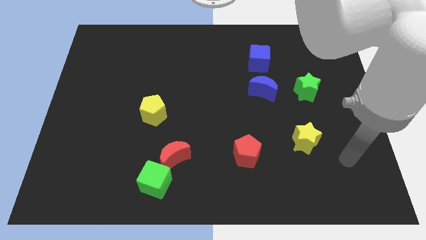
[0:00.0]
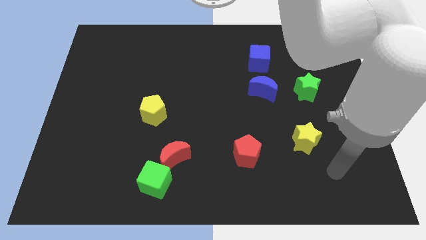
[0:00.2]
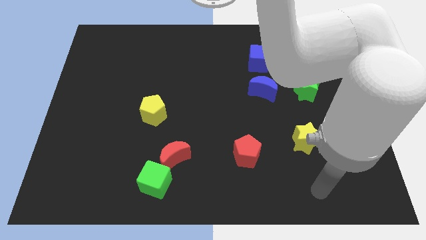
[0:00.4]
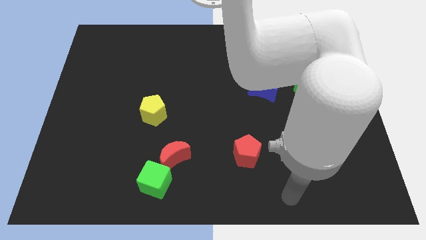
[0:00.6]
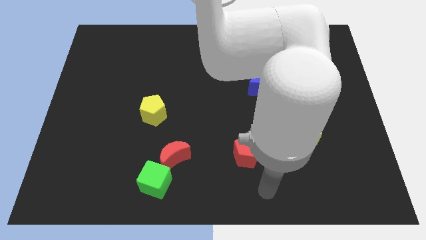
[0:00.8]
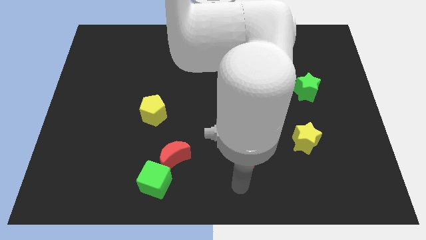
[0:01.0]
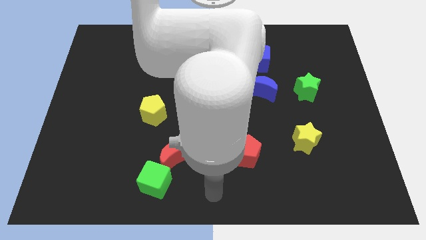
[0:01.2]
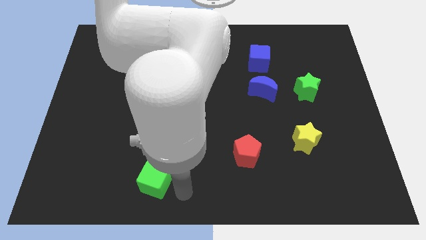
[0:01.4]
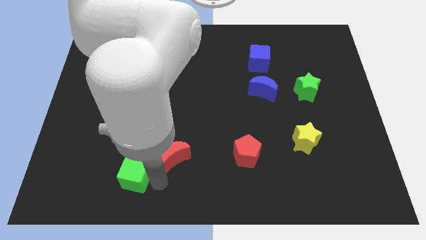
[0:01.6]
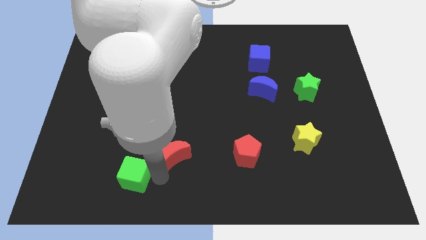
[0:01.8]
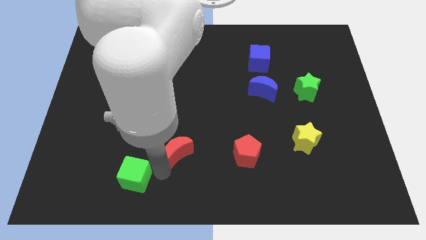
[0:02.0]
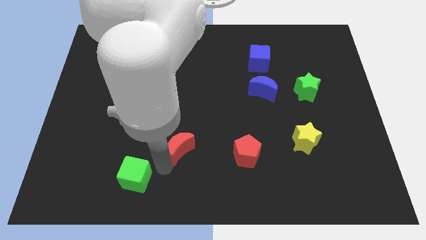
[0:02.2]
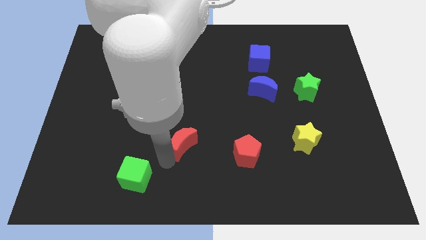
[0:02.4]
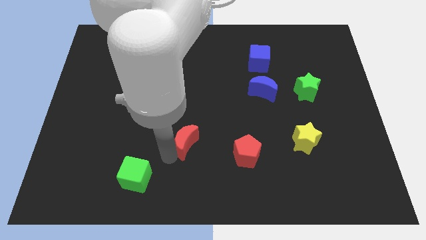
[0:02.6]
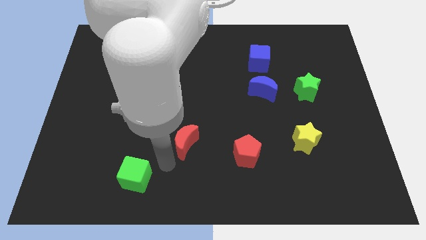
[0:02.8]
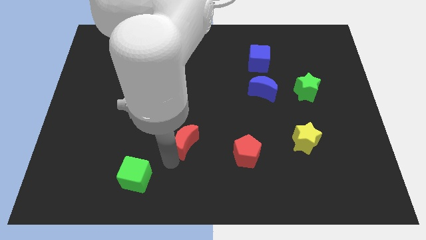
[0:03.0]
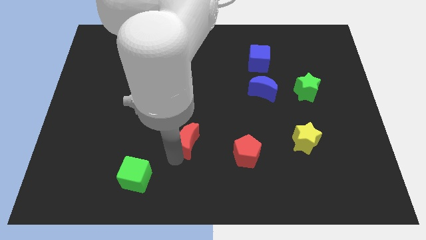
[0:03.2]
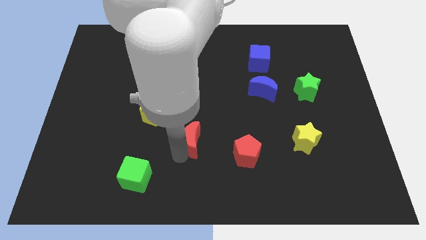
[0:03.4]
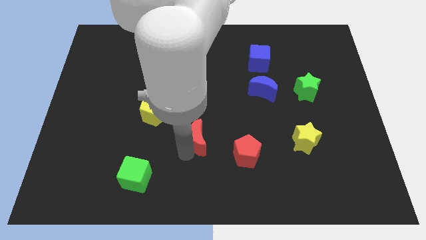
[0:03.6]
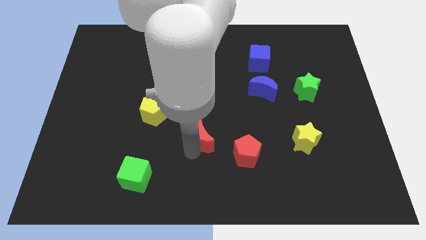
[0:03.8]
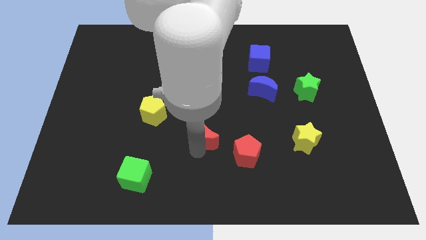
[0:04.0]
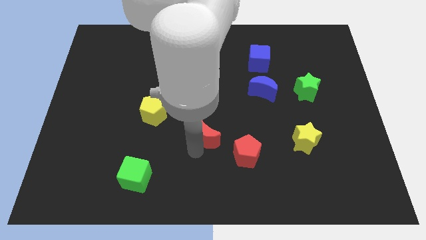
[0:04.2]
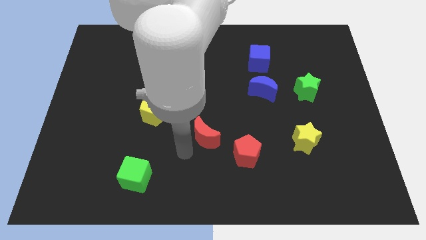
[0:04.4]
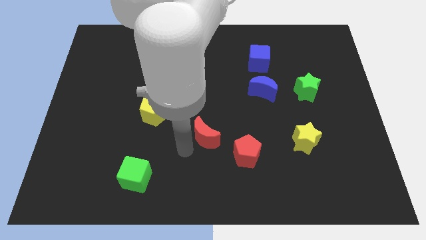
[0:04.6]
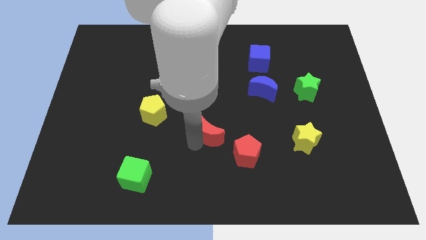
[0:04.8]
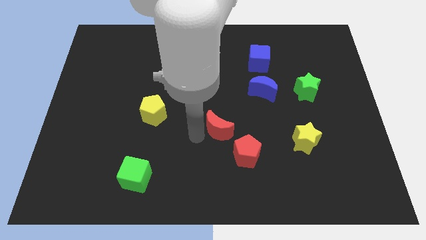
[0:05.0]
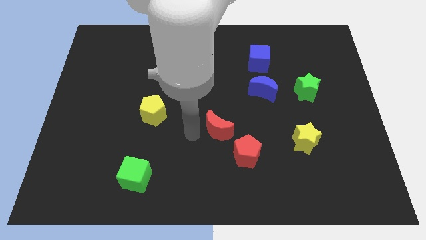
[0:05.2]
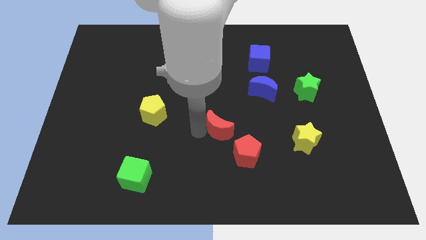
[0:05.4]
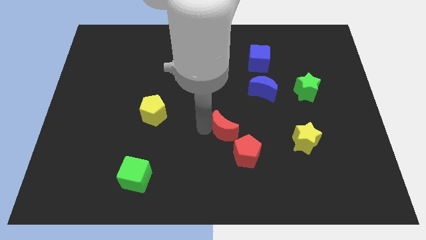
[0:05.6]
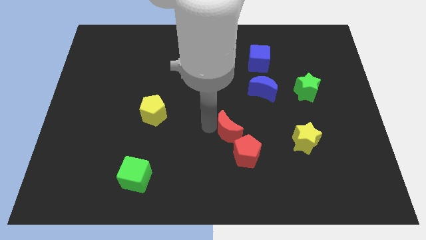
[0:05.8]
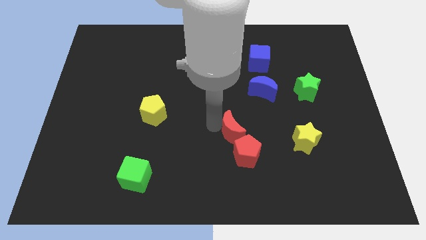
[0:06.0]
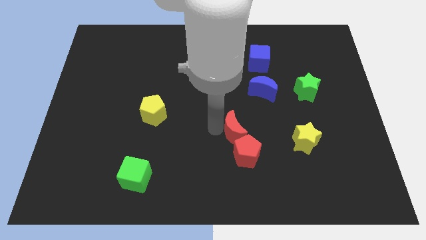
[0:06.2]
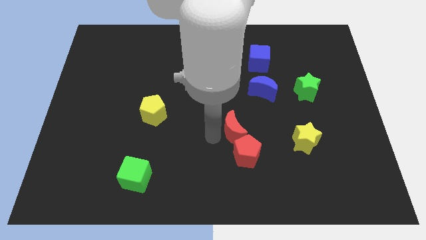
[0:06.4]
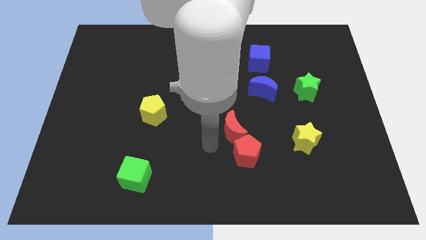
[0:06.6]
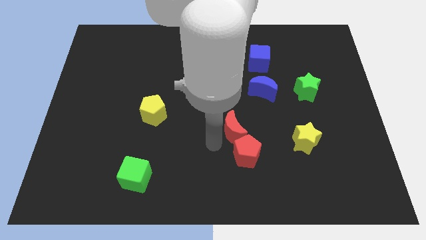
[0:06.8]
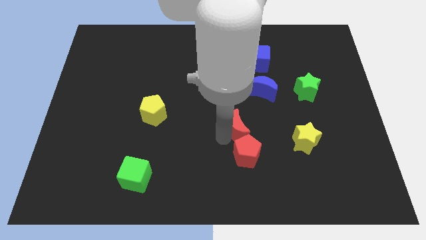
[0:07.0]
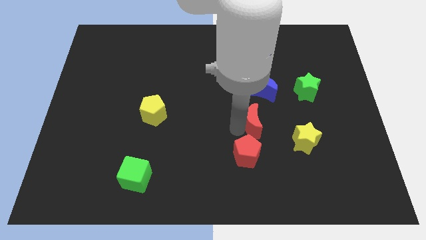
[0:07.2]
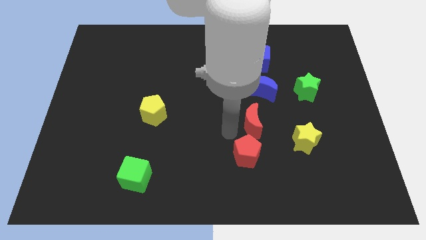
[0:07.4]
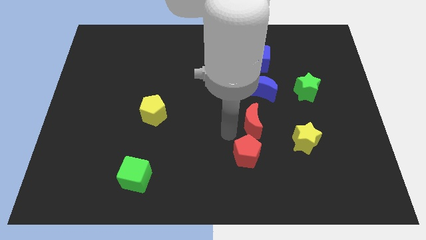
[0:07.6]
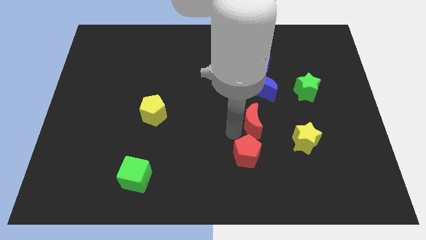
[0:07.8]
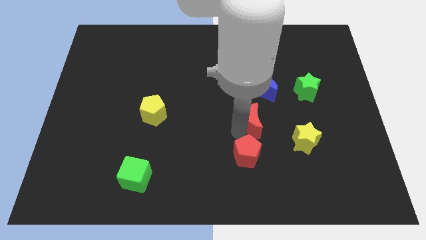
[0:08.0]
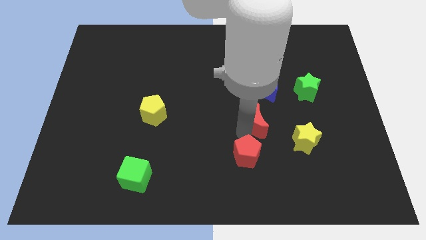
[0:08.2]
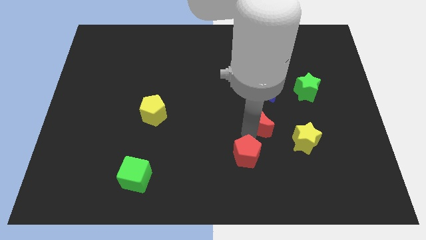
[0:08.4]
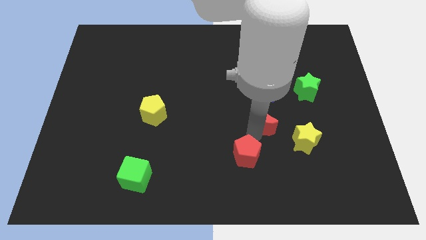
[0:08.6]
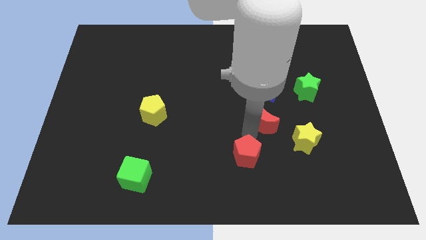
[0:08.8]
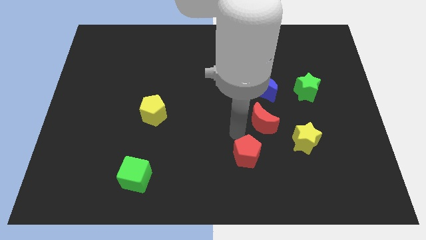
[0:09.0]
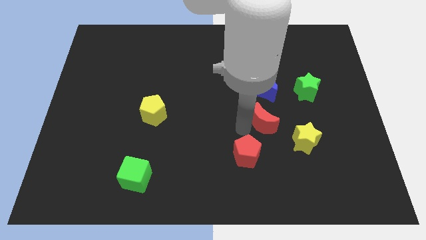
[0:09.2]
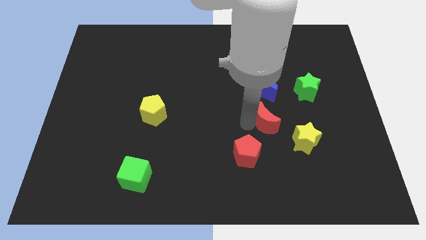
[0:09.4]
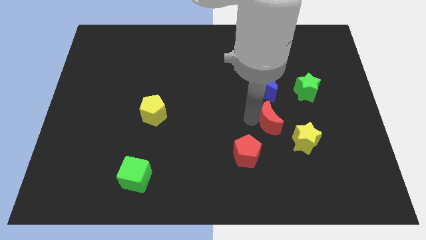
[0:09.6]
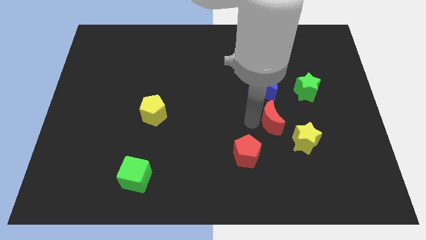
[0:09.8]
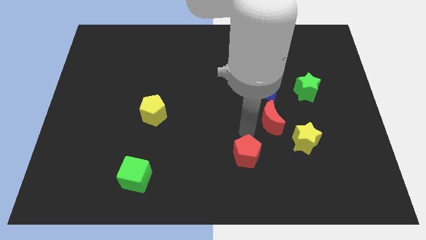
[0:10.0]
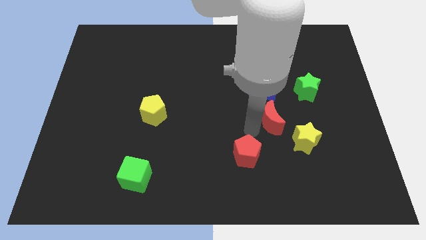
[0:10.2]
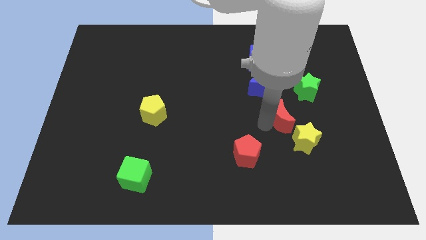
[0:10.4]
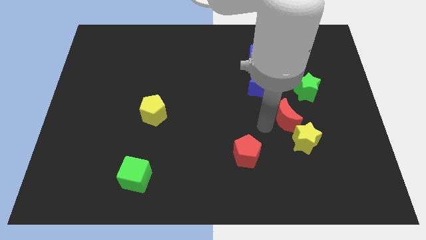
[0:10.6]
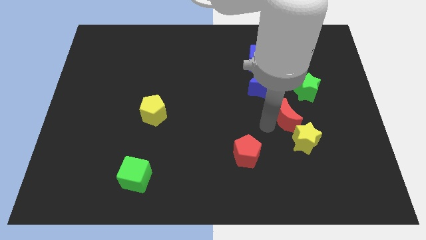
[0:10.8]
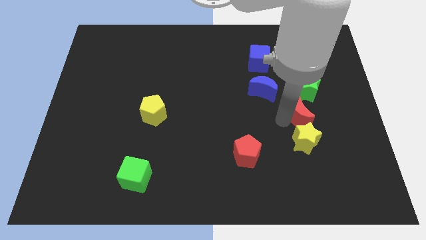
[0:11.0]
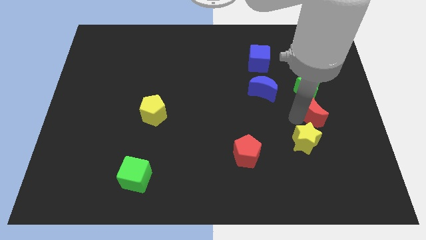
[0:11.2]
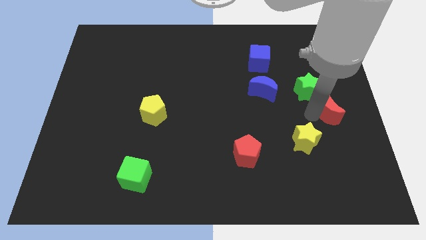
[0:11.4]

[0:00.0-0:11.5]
slide the red moon to the right side

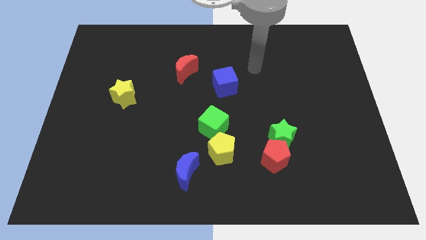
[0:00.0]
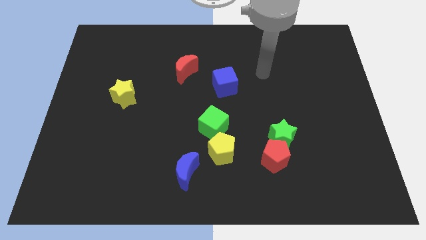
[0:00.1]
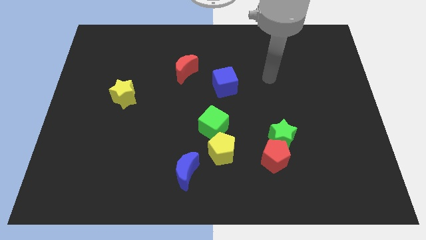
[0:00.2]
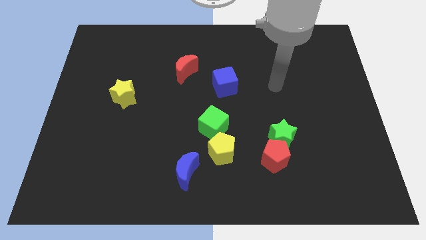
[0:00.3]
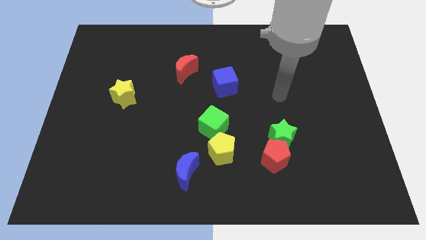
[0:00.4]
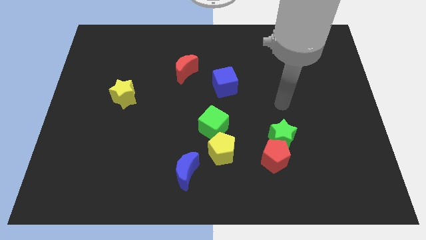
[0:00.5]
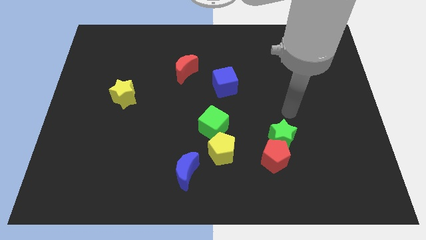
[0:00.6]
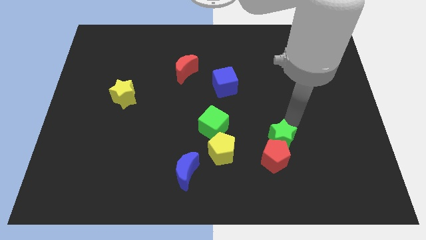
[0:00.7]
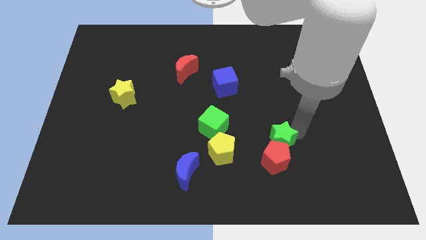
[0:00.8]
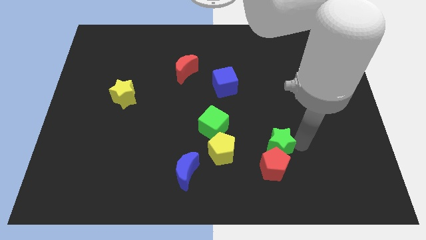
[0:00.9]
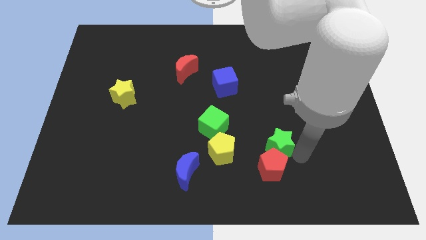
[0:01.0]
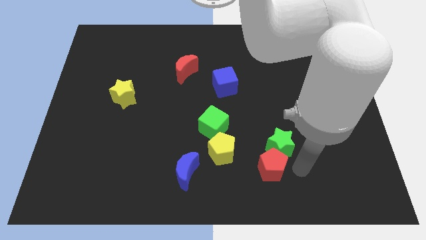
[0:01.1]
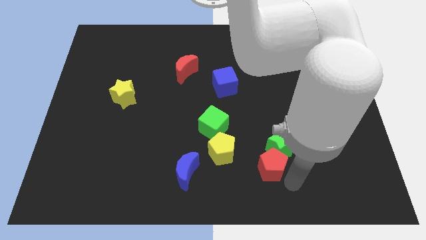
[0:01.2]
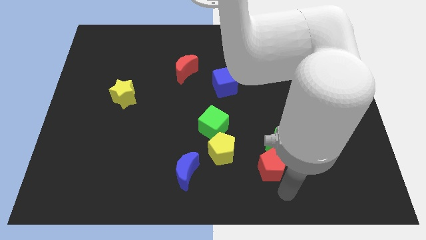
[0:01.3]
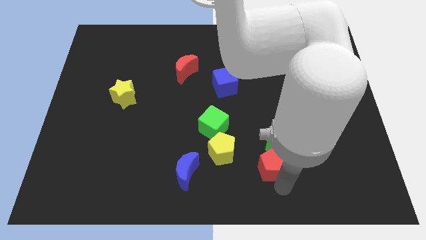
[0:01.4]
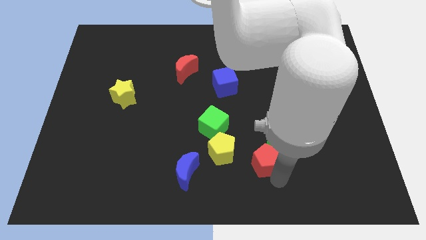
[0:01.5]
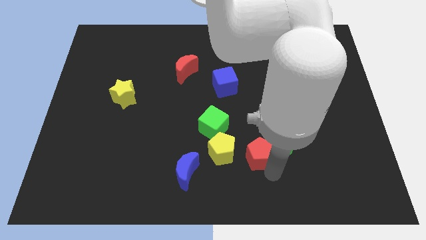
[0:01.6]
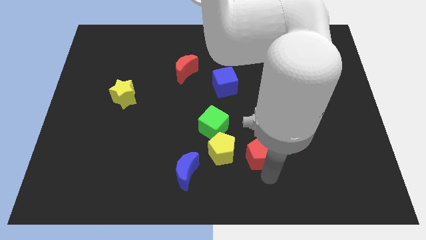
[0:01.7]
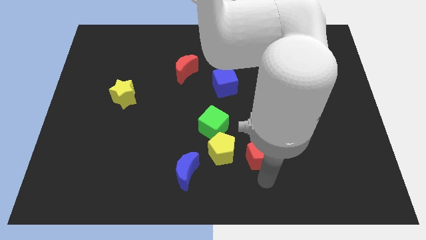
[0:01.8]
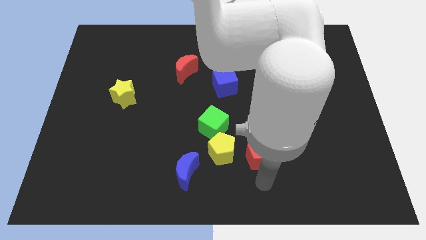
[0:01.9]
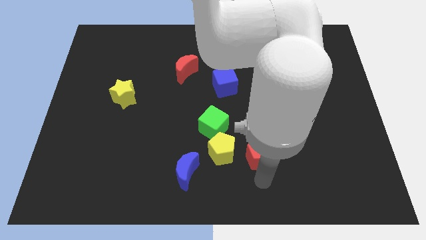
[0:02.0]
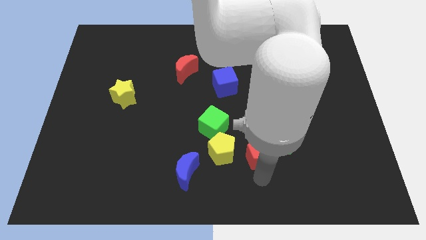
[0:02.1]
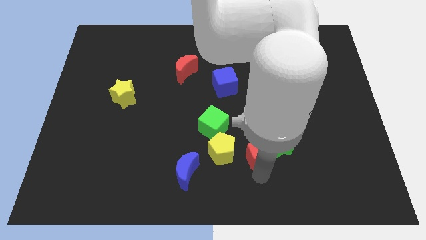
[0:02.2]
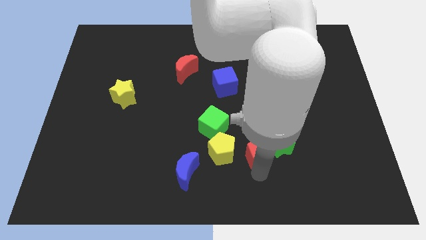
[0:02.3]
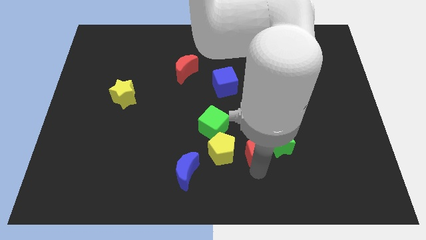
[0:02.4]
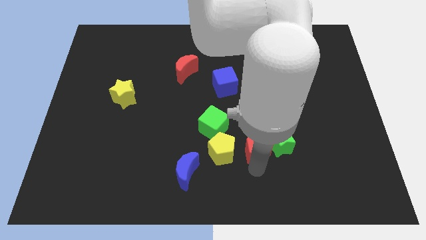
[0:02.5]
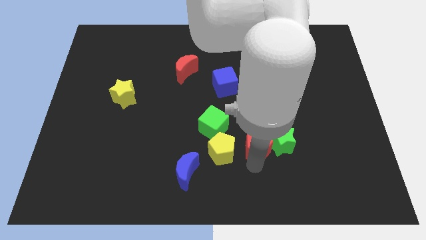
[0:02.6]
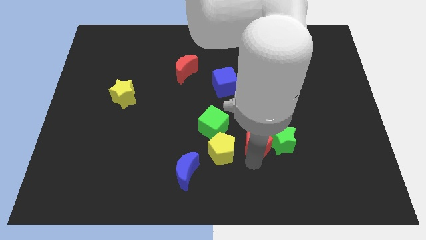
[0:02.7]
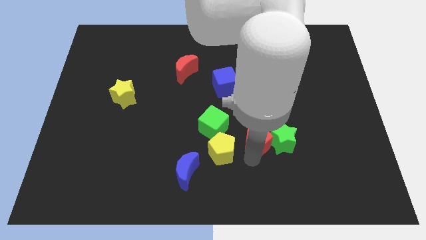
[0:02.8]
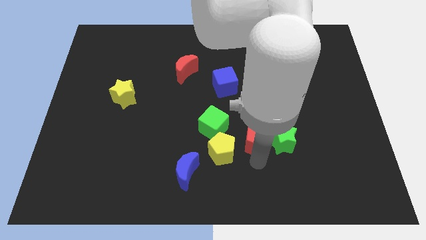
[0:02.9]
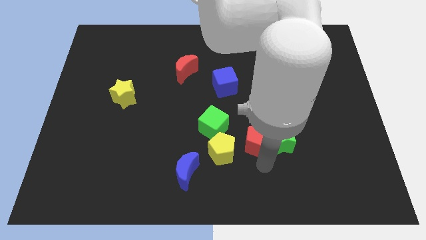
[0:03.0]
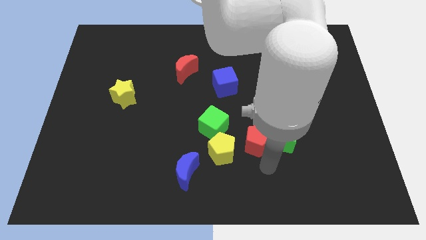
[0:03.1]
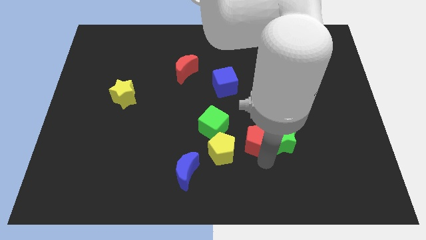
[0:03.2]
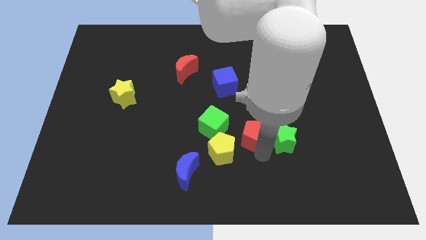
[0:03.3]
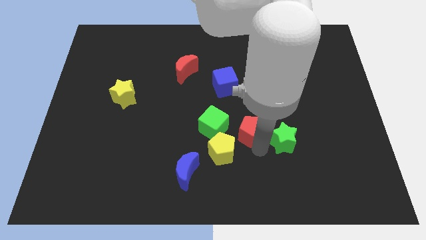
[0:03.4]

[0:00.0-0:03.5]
move the red pentagon to the middle
